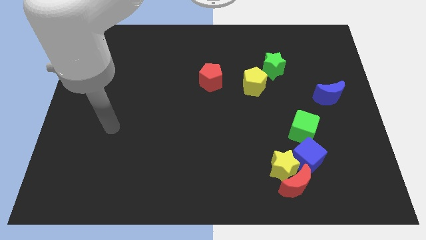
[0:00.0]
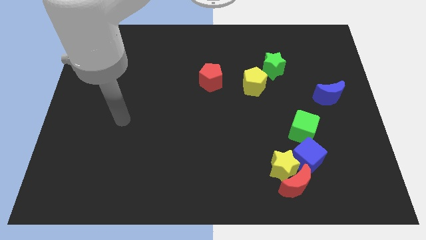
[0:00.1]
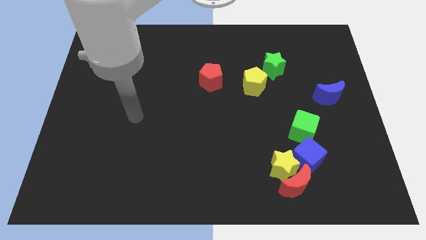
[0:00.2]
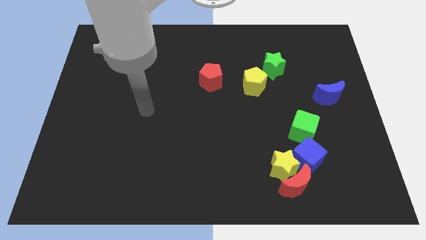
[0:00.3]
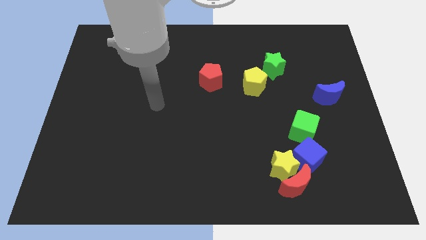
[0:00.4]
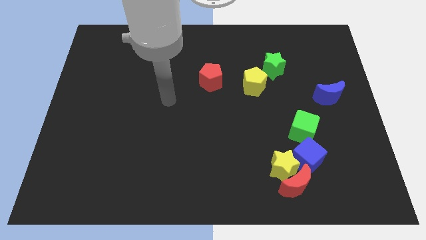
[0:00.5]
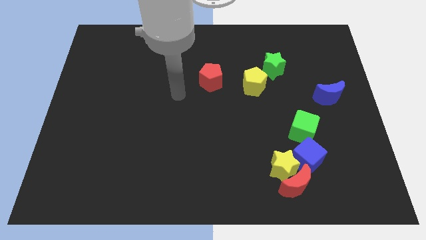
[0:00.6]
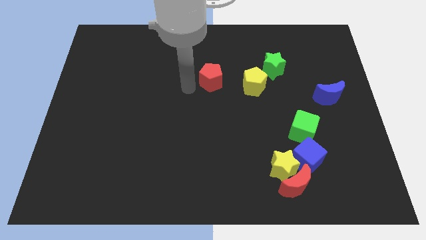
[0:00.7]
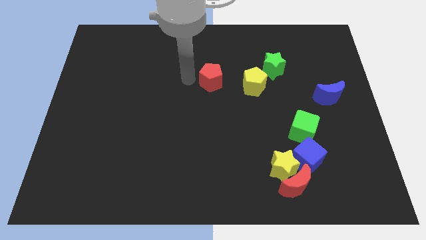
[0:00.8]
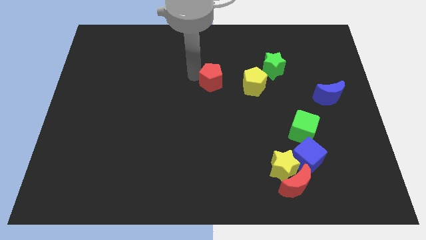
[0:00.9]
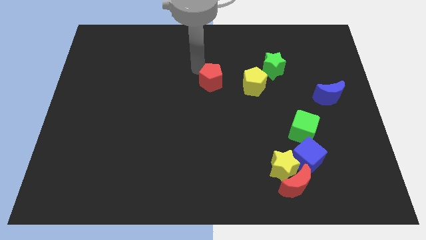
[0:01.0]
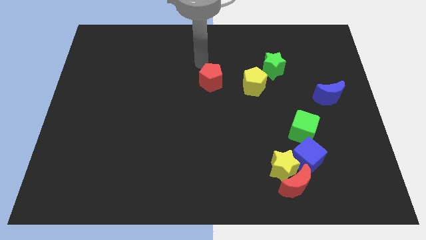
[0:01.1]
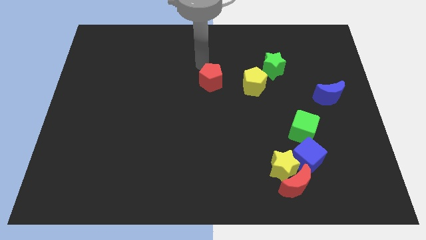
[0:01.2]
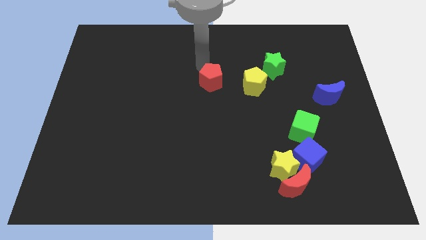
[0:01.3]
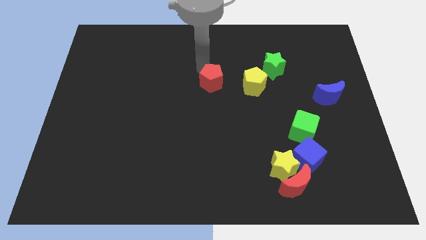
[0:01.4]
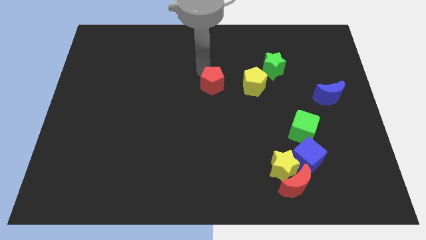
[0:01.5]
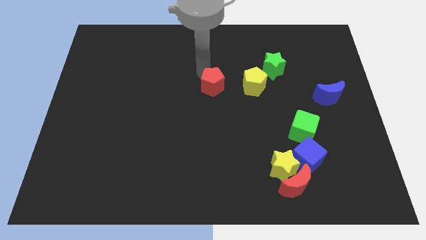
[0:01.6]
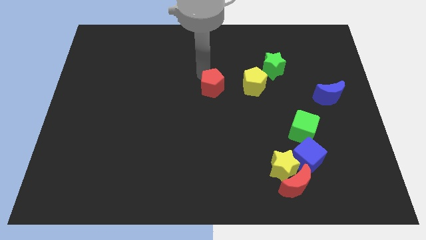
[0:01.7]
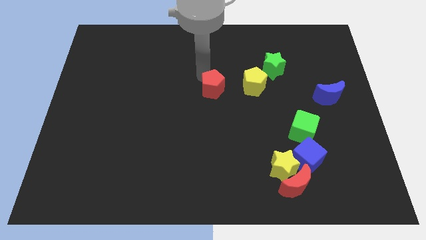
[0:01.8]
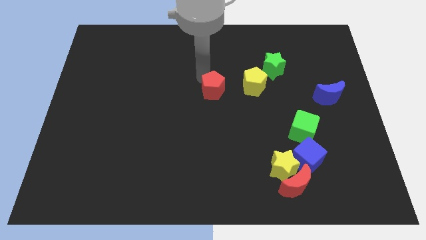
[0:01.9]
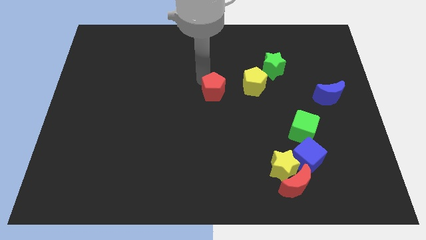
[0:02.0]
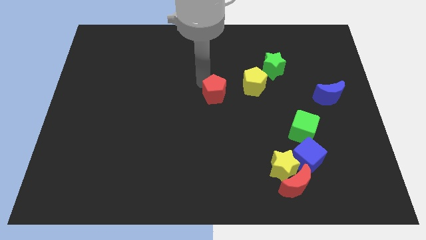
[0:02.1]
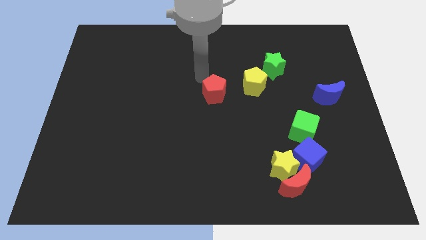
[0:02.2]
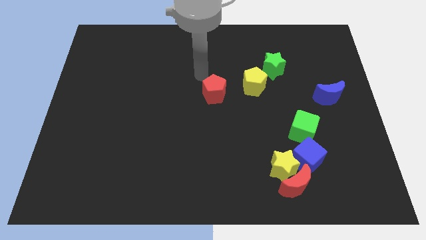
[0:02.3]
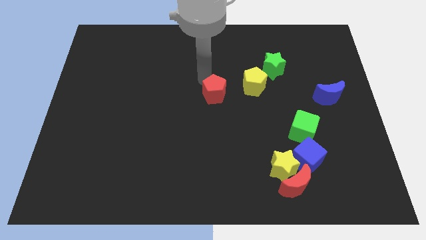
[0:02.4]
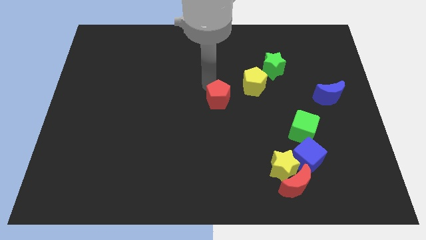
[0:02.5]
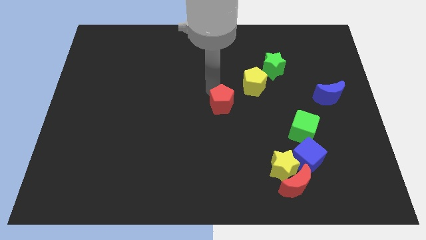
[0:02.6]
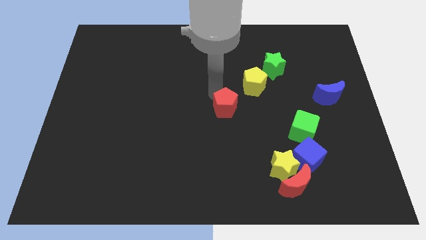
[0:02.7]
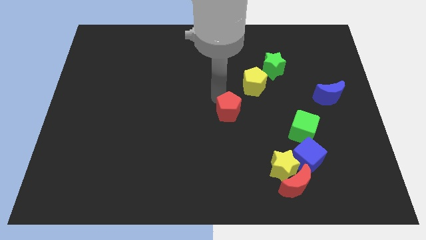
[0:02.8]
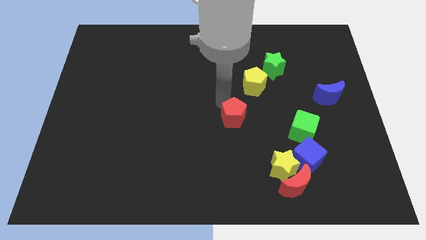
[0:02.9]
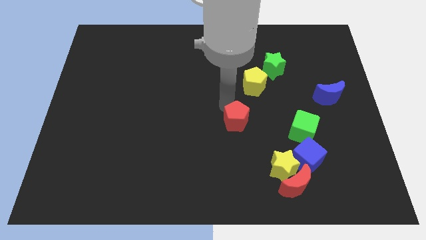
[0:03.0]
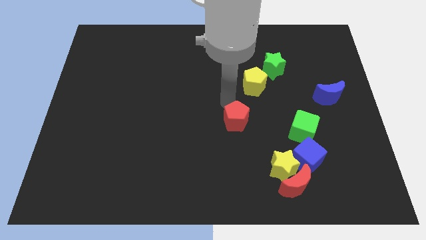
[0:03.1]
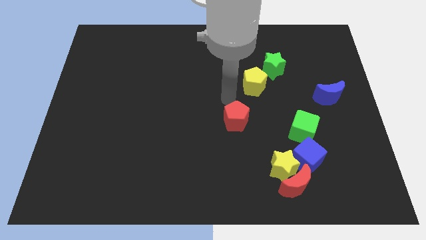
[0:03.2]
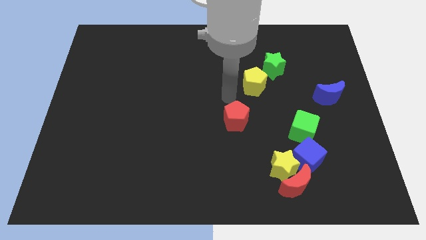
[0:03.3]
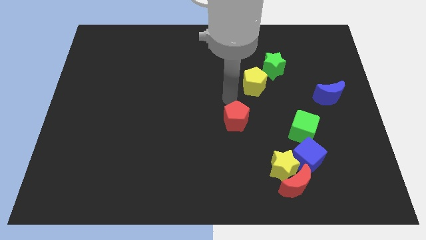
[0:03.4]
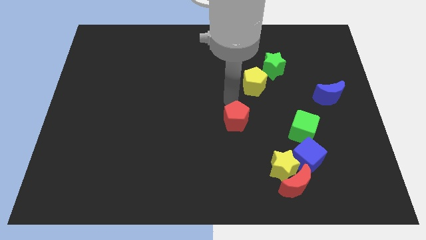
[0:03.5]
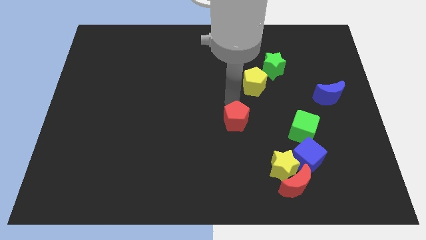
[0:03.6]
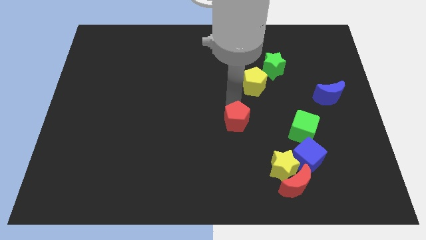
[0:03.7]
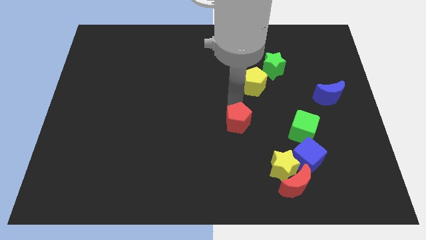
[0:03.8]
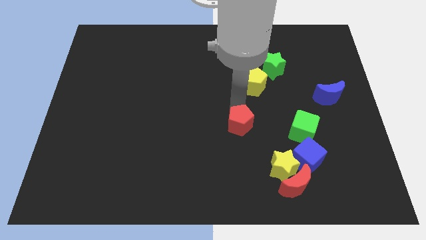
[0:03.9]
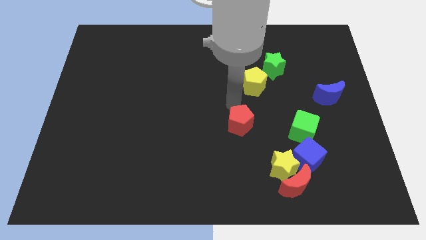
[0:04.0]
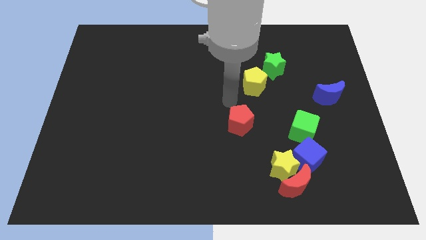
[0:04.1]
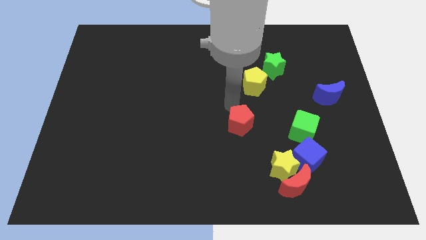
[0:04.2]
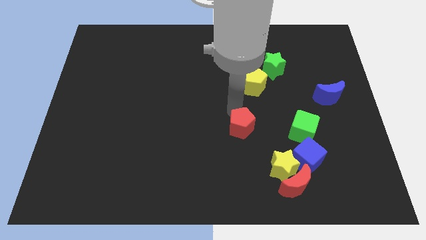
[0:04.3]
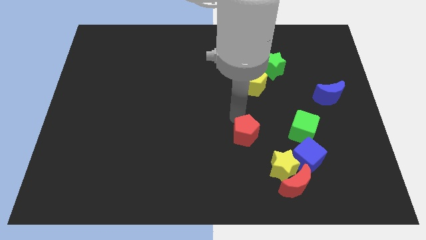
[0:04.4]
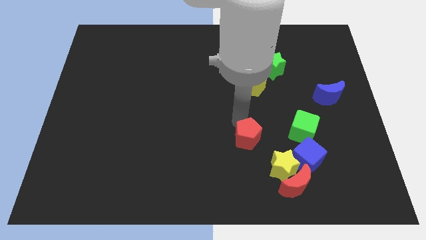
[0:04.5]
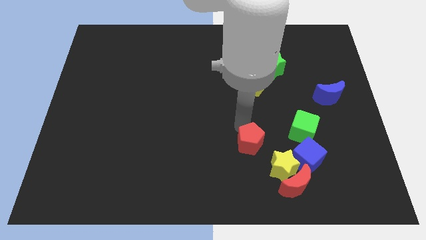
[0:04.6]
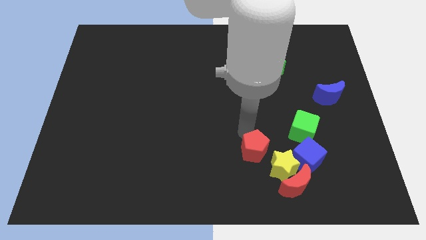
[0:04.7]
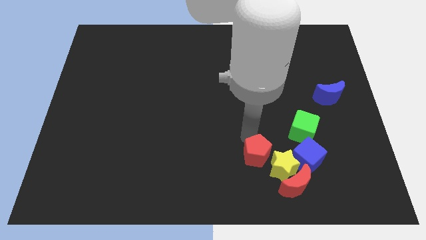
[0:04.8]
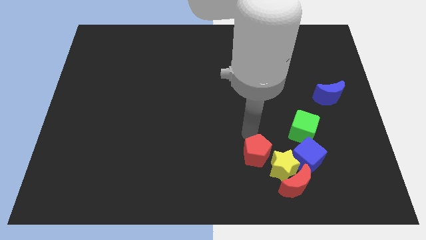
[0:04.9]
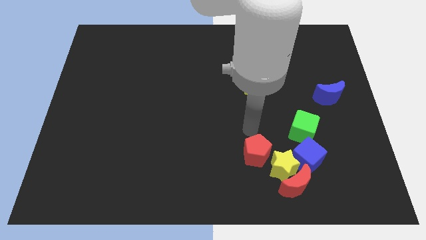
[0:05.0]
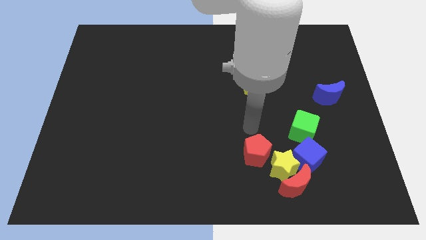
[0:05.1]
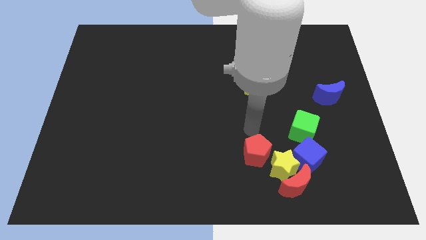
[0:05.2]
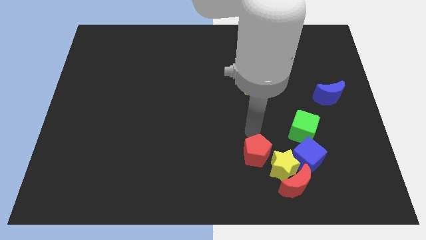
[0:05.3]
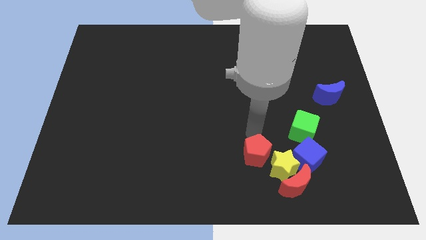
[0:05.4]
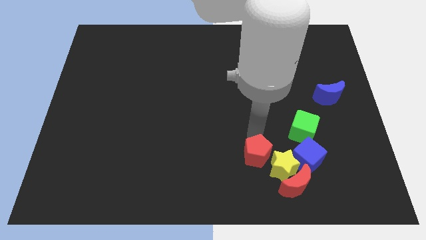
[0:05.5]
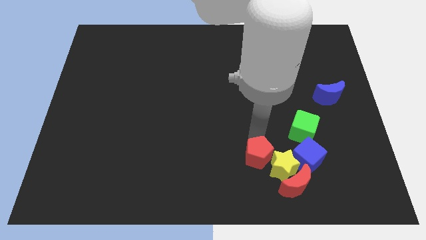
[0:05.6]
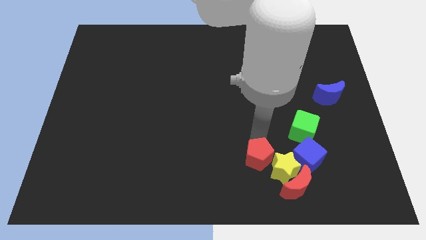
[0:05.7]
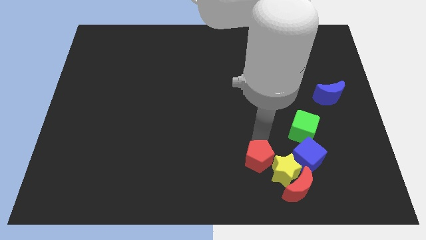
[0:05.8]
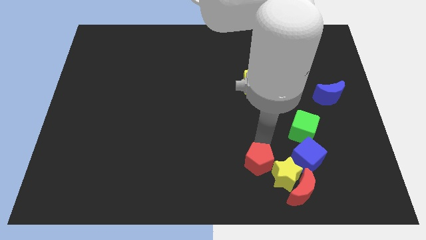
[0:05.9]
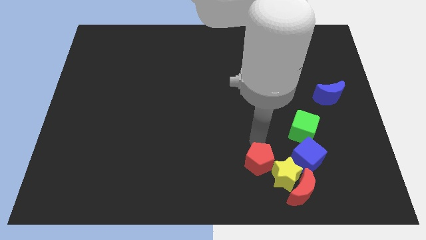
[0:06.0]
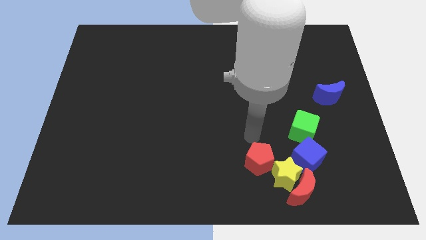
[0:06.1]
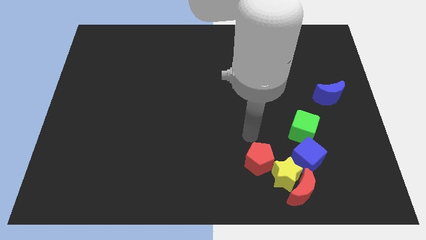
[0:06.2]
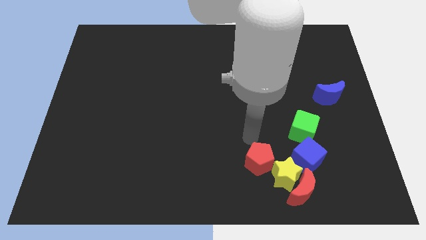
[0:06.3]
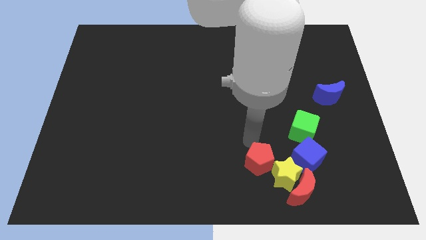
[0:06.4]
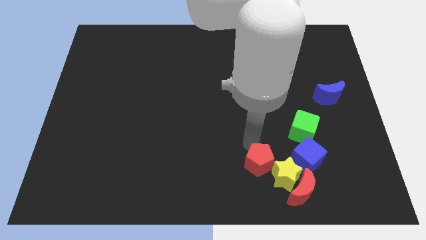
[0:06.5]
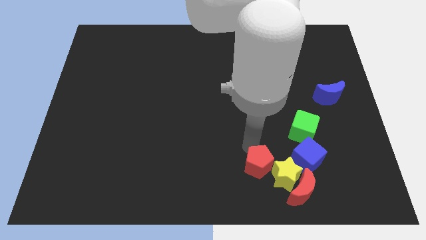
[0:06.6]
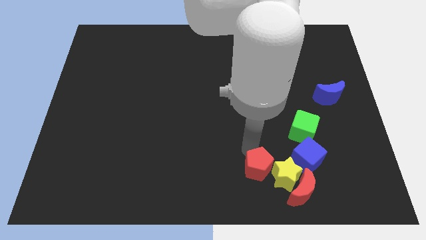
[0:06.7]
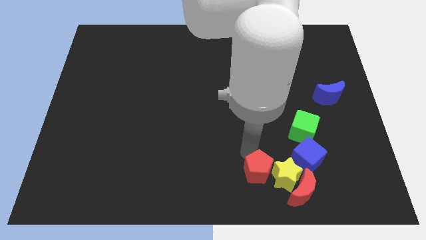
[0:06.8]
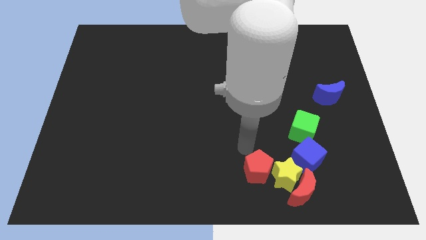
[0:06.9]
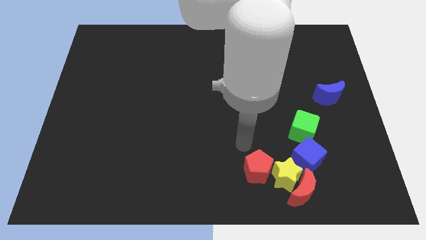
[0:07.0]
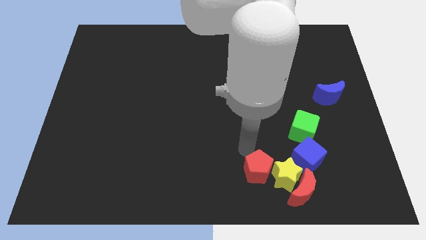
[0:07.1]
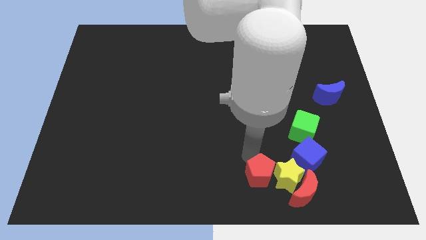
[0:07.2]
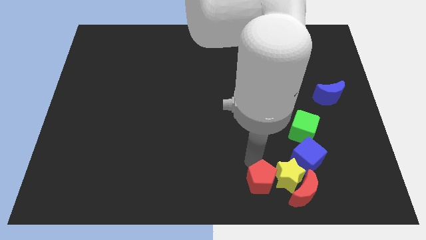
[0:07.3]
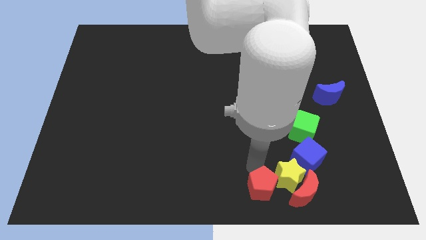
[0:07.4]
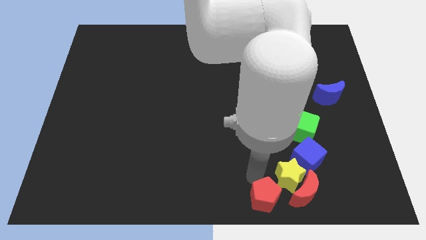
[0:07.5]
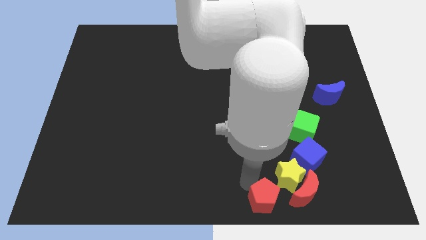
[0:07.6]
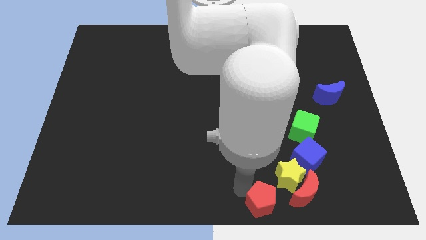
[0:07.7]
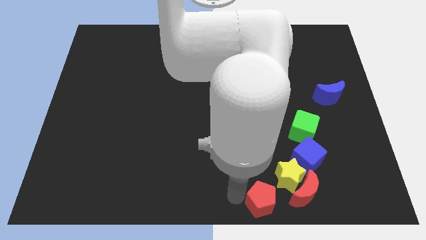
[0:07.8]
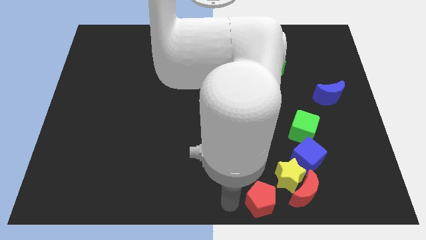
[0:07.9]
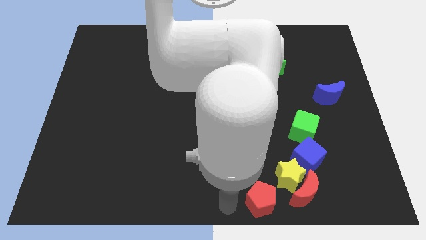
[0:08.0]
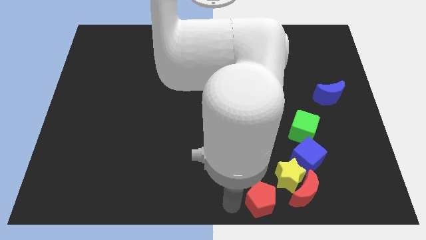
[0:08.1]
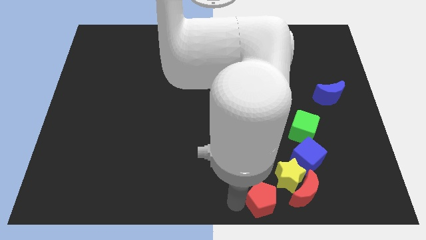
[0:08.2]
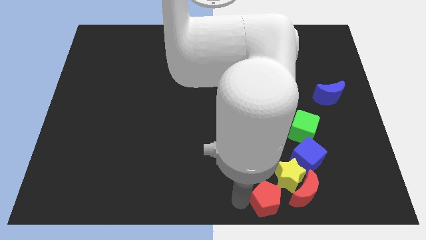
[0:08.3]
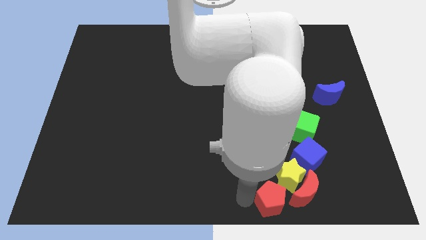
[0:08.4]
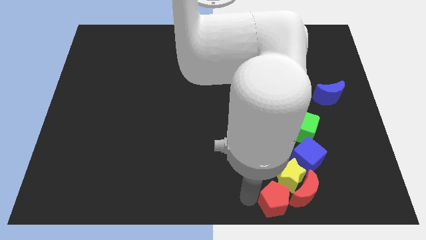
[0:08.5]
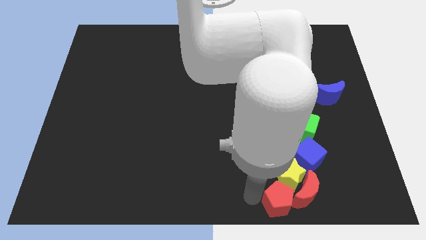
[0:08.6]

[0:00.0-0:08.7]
move the red pentagon close to the red moon
